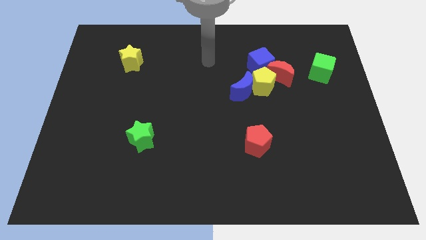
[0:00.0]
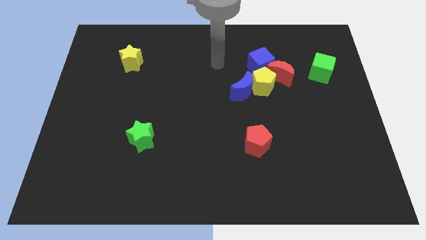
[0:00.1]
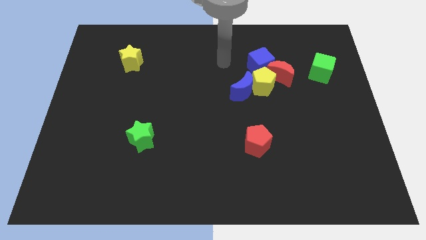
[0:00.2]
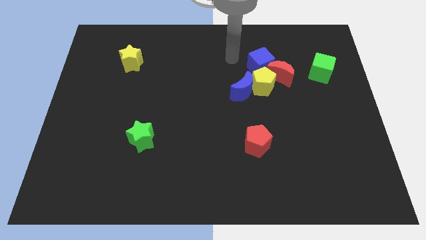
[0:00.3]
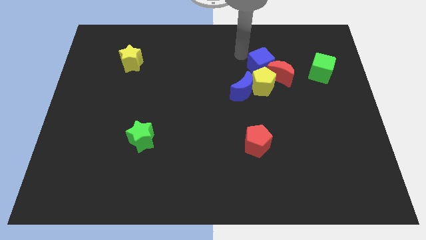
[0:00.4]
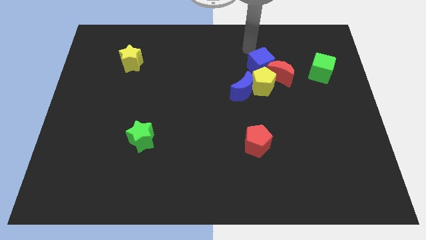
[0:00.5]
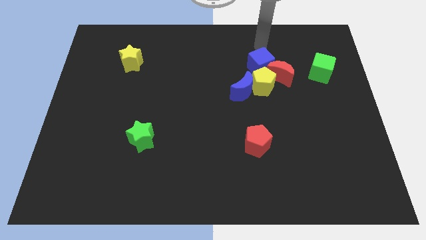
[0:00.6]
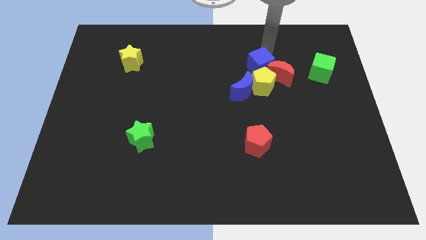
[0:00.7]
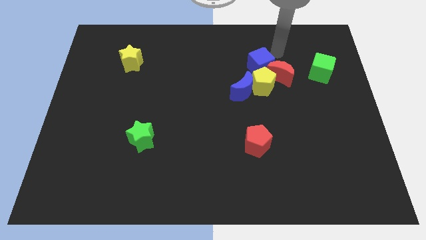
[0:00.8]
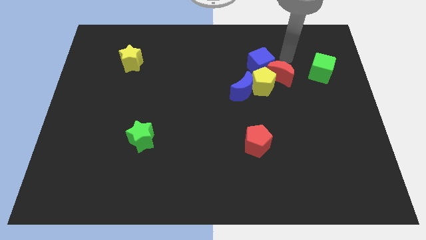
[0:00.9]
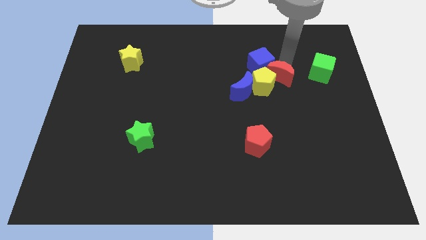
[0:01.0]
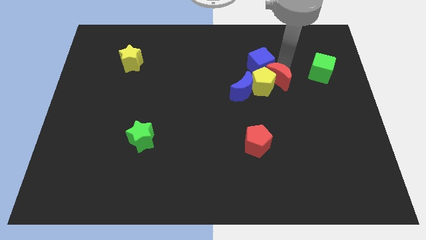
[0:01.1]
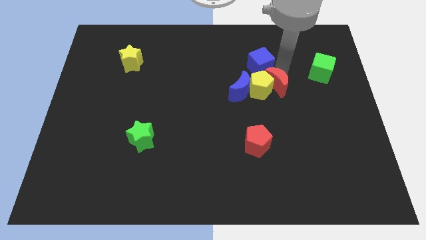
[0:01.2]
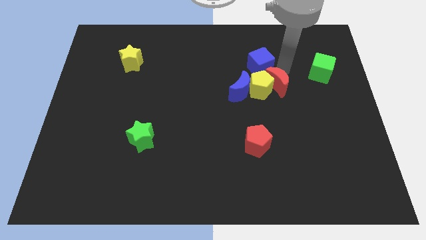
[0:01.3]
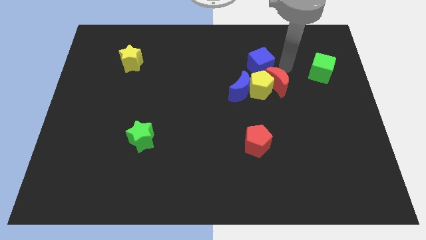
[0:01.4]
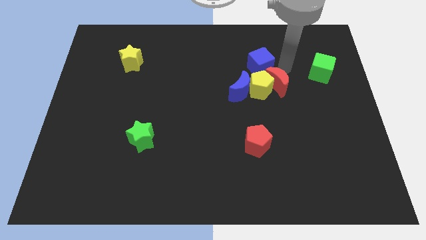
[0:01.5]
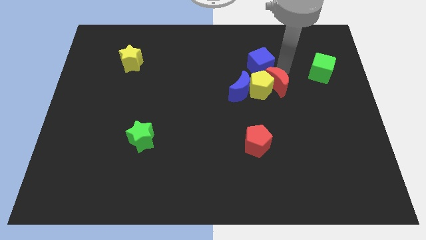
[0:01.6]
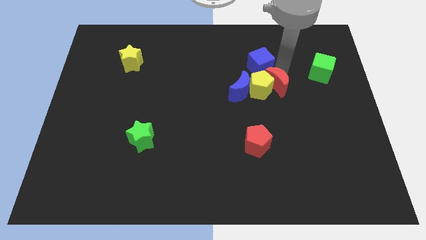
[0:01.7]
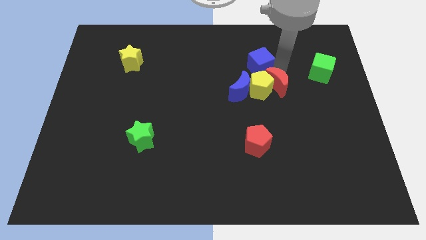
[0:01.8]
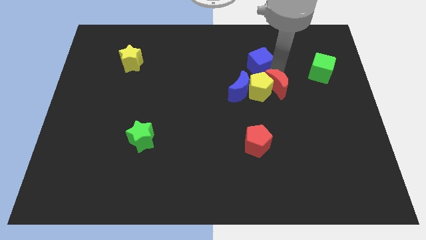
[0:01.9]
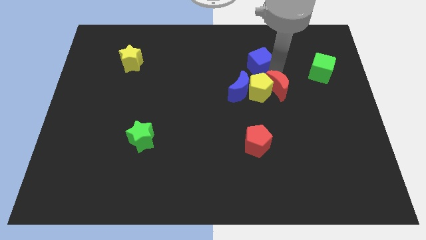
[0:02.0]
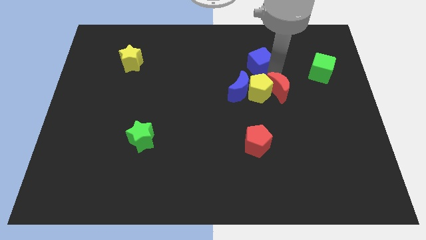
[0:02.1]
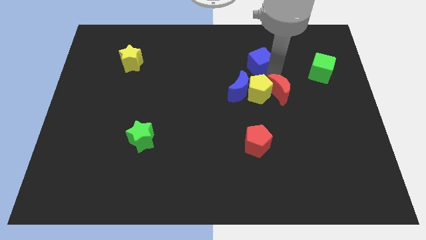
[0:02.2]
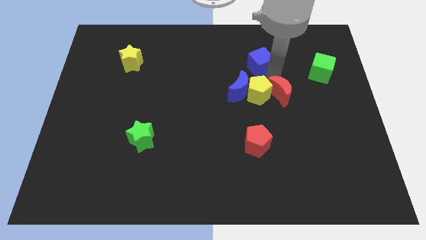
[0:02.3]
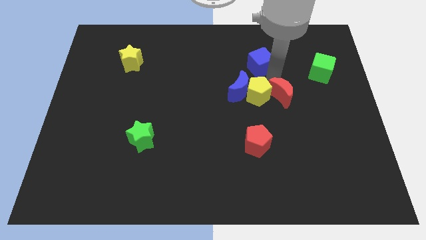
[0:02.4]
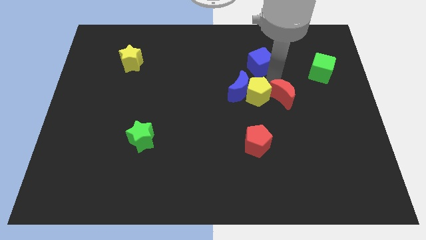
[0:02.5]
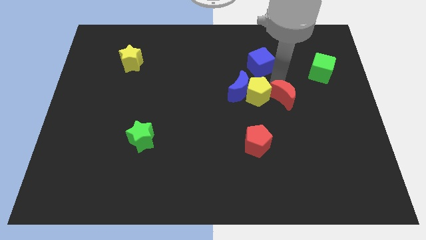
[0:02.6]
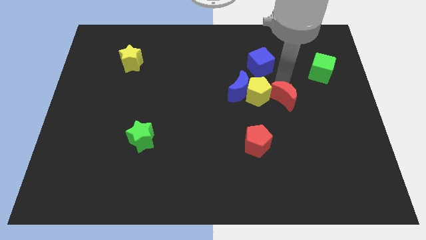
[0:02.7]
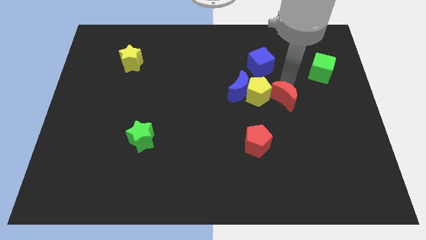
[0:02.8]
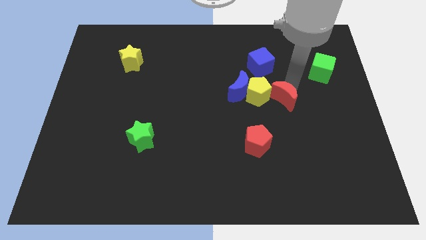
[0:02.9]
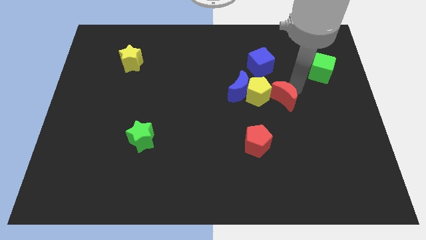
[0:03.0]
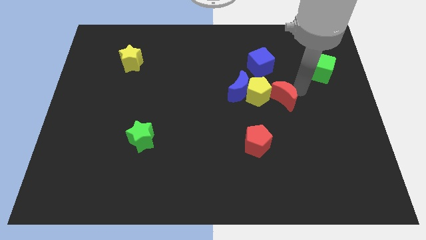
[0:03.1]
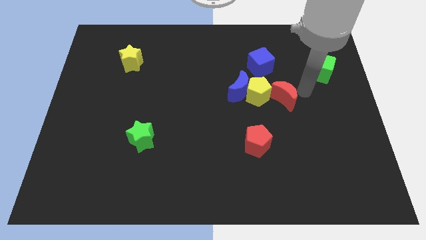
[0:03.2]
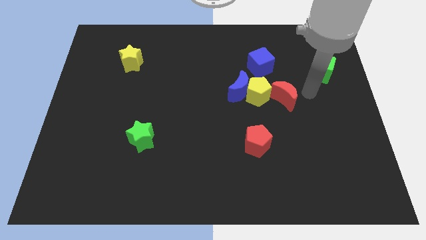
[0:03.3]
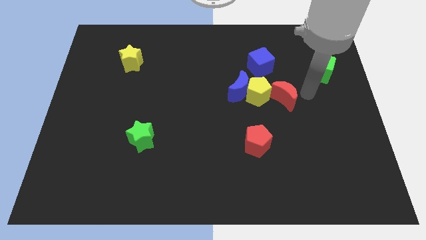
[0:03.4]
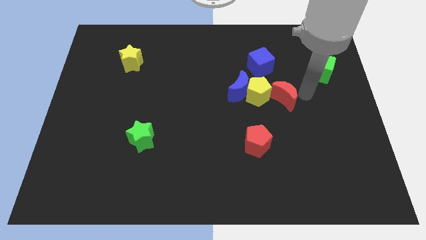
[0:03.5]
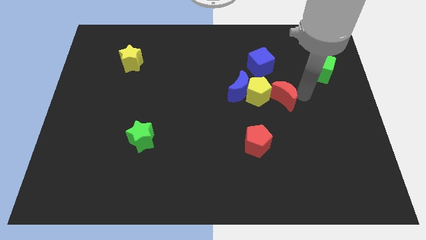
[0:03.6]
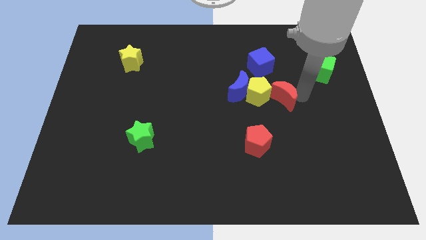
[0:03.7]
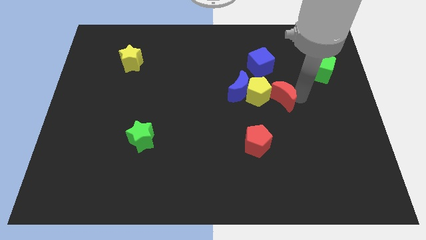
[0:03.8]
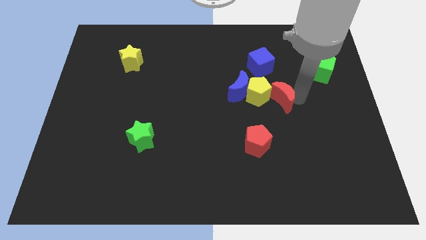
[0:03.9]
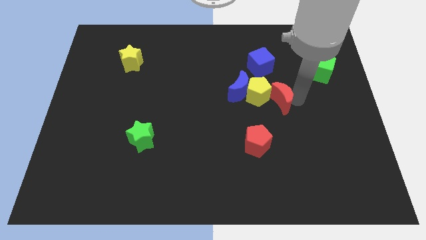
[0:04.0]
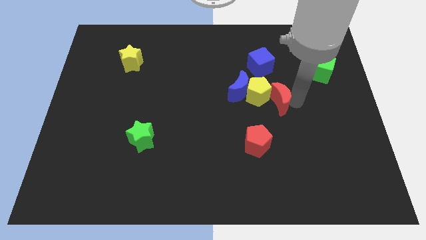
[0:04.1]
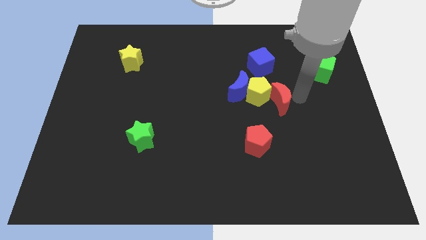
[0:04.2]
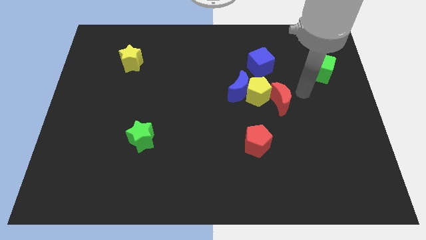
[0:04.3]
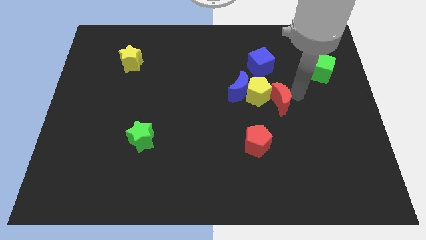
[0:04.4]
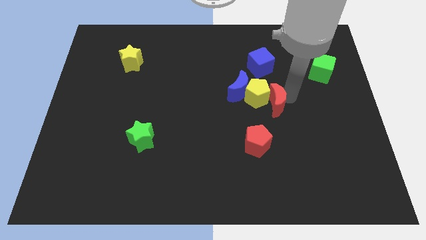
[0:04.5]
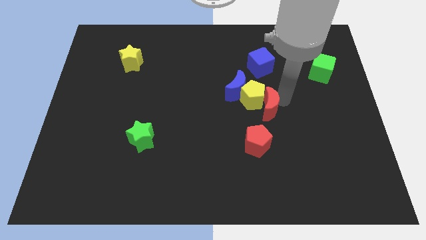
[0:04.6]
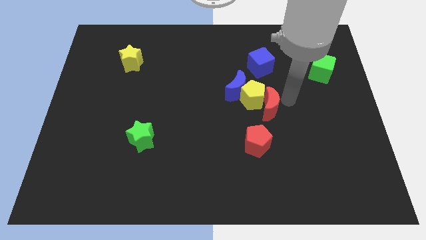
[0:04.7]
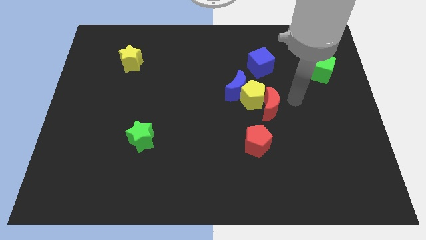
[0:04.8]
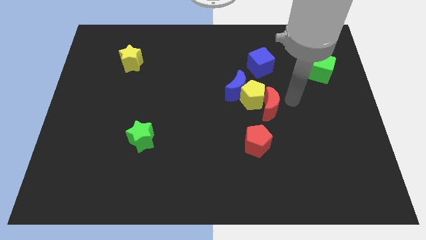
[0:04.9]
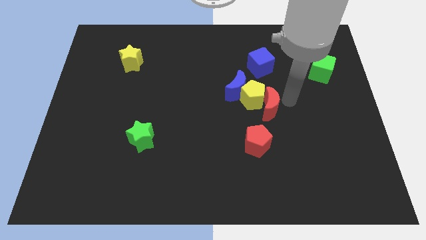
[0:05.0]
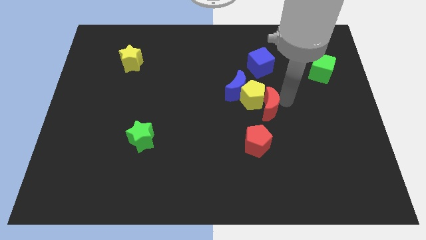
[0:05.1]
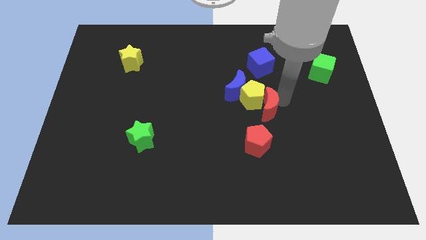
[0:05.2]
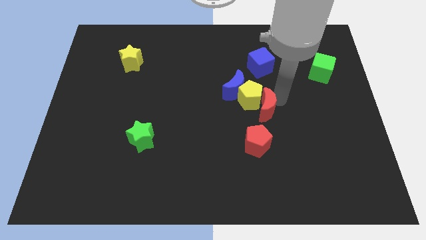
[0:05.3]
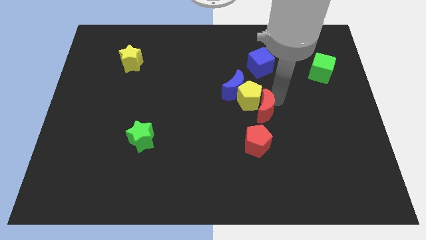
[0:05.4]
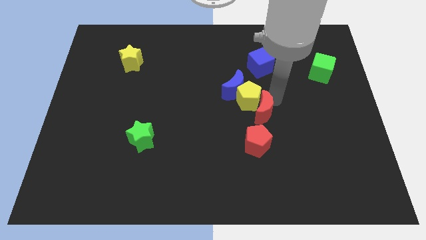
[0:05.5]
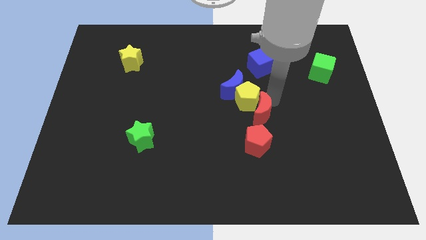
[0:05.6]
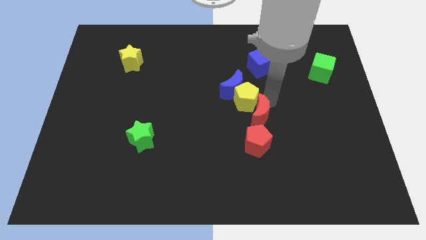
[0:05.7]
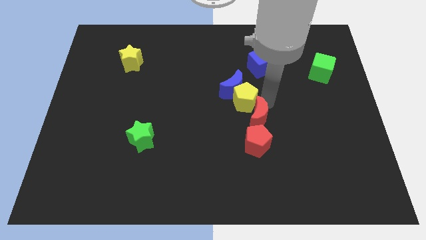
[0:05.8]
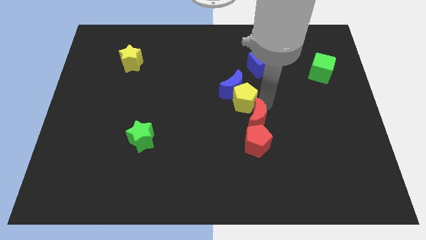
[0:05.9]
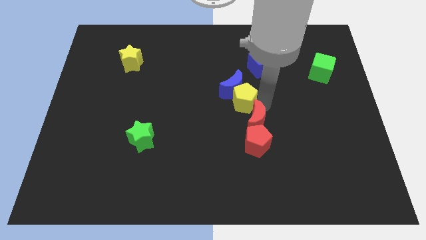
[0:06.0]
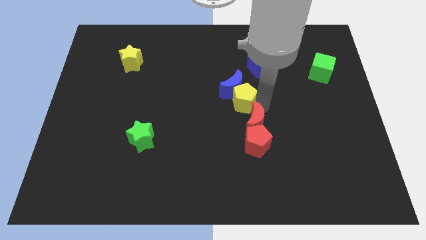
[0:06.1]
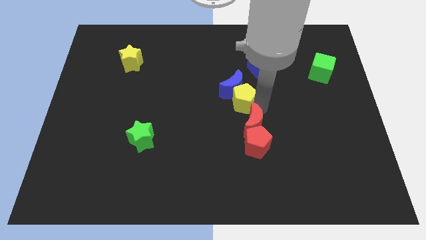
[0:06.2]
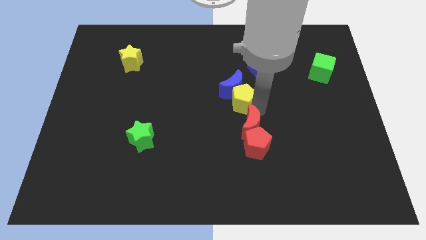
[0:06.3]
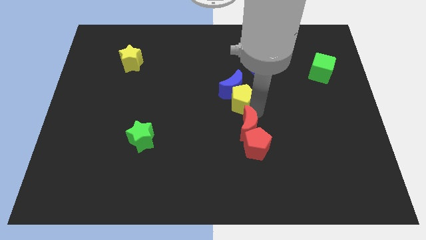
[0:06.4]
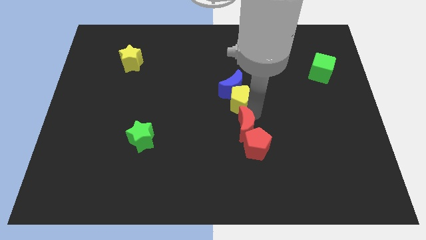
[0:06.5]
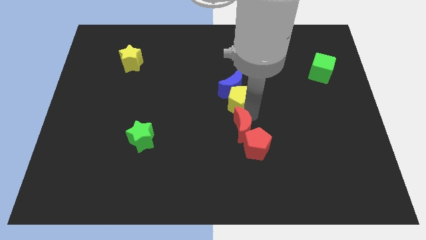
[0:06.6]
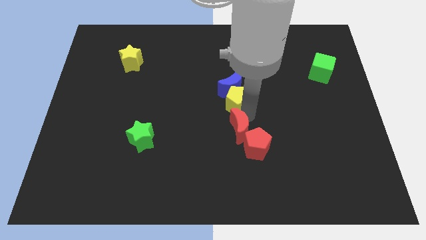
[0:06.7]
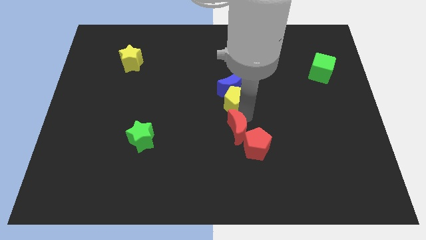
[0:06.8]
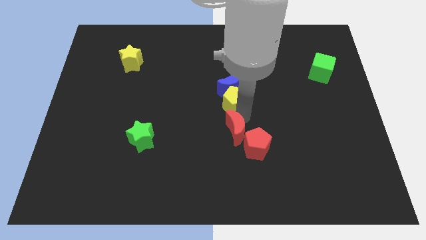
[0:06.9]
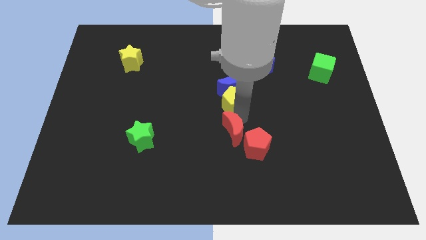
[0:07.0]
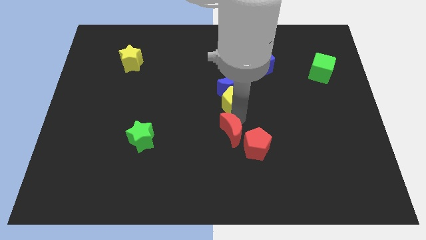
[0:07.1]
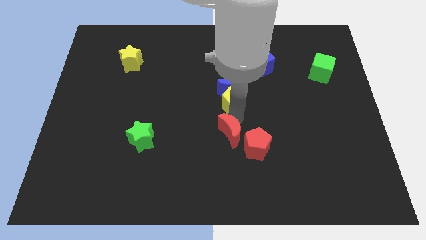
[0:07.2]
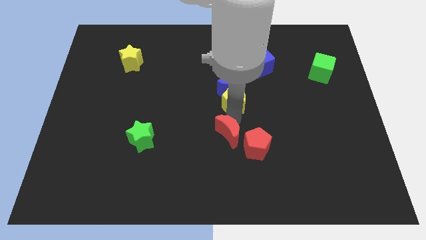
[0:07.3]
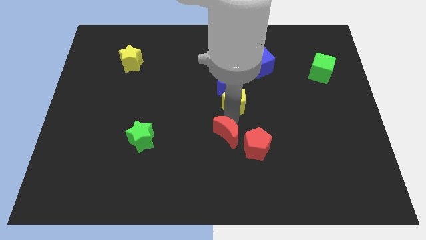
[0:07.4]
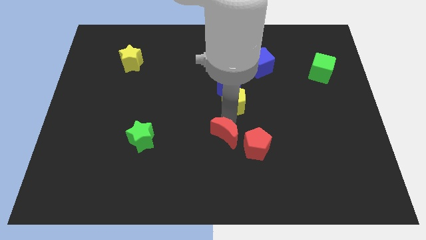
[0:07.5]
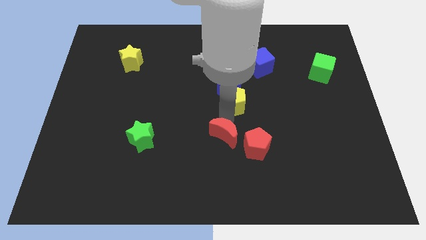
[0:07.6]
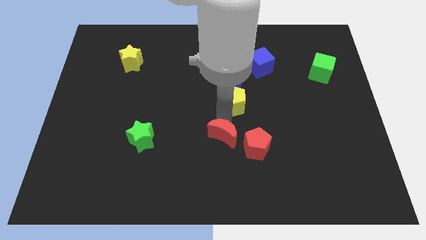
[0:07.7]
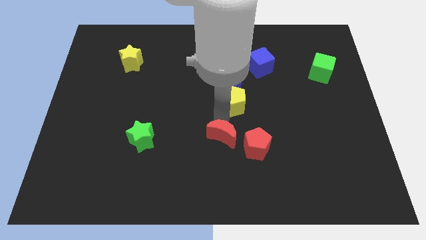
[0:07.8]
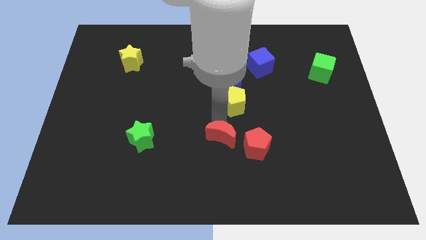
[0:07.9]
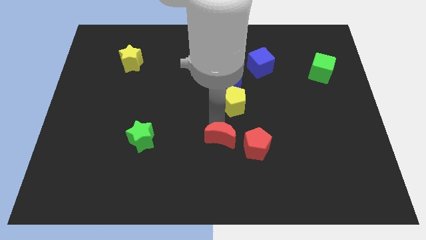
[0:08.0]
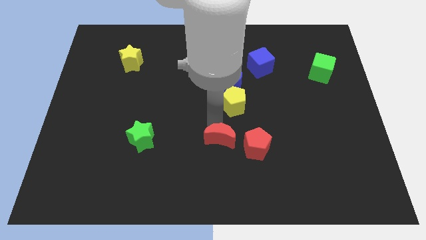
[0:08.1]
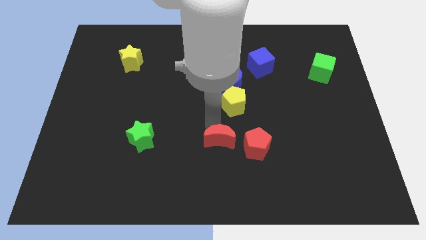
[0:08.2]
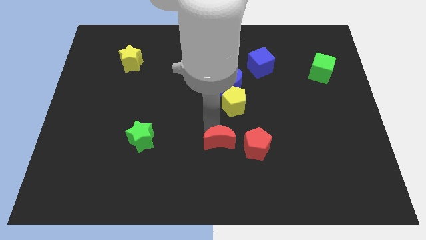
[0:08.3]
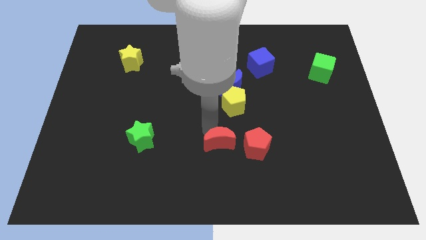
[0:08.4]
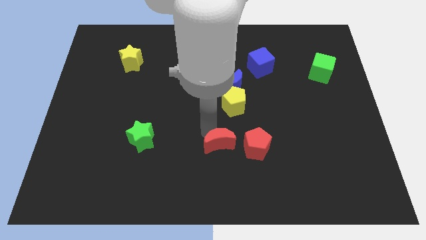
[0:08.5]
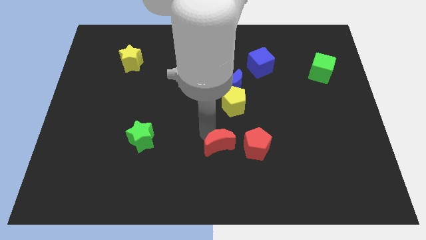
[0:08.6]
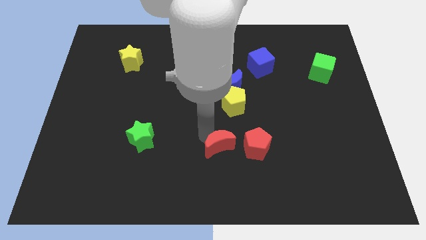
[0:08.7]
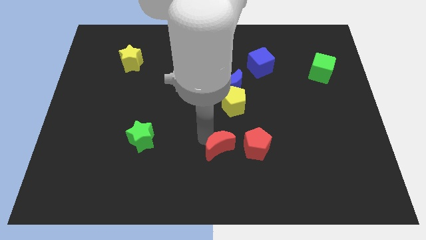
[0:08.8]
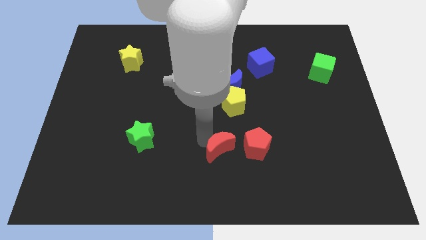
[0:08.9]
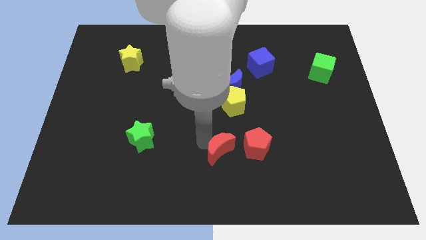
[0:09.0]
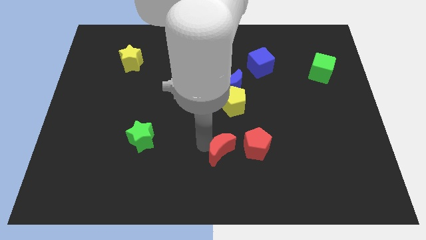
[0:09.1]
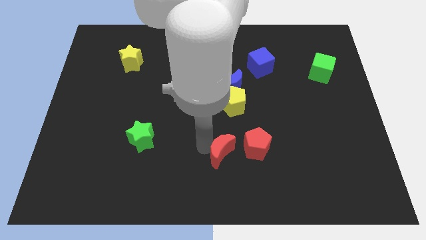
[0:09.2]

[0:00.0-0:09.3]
move the red moon to the bottom side
